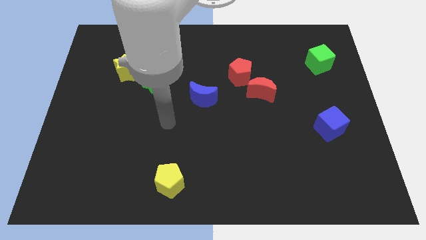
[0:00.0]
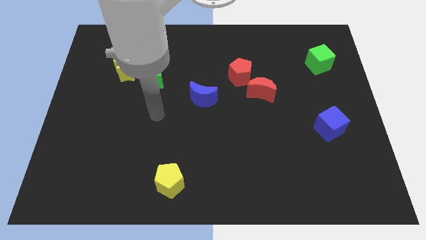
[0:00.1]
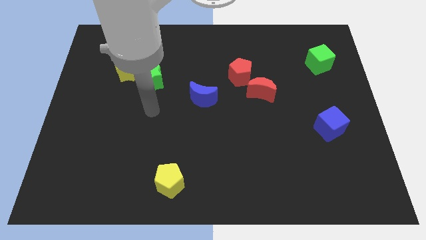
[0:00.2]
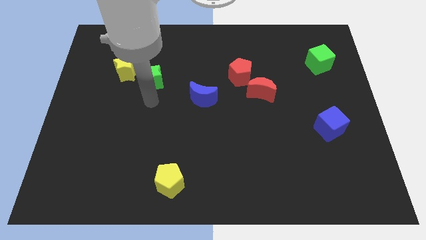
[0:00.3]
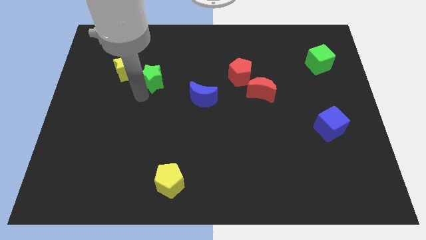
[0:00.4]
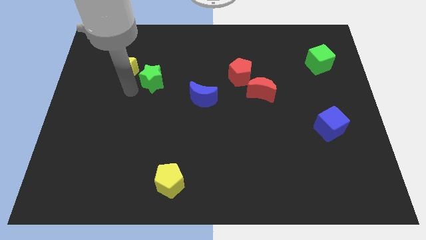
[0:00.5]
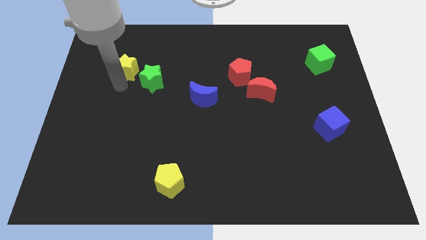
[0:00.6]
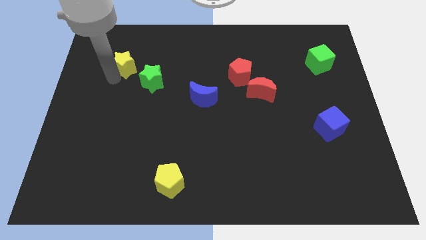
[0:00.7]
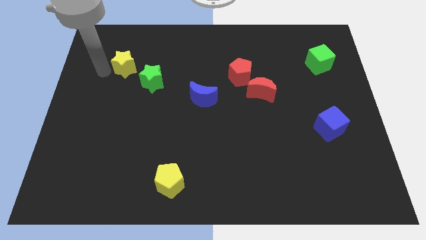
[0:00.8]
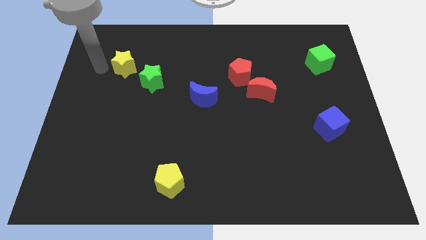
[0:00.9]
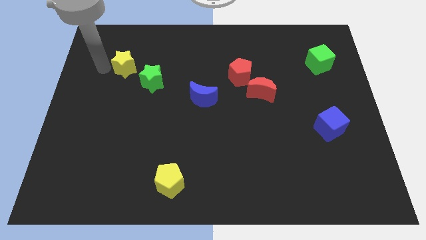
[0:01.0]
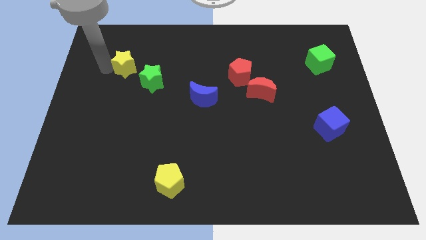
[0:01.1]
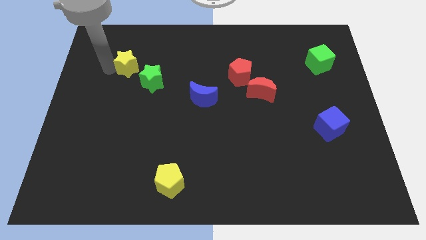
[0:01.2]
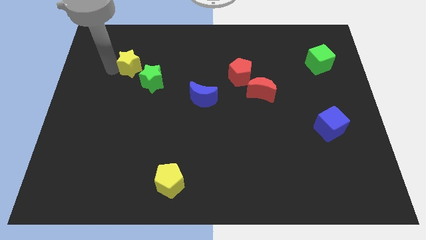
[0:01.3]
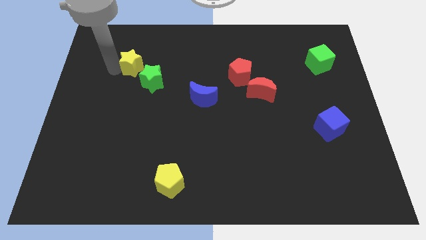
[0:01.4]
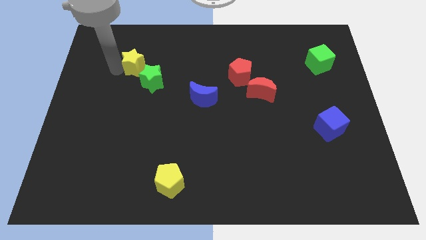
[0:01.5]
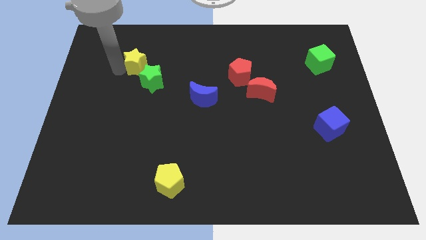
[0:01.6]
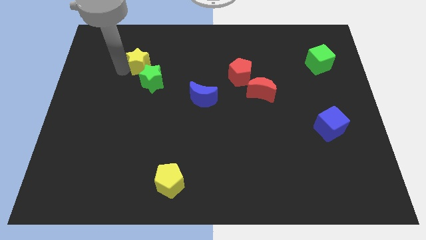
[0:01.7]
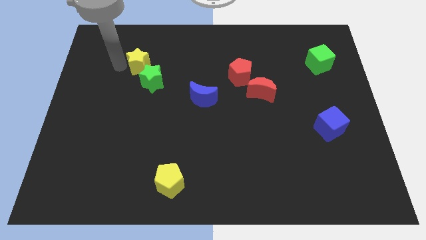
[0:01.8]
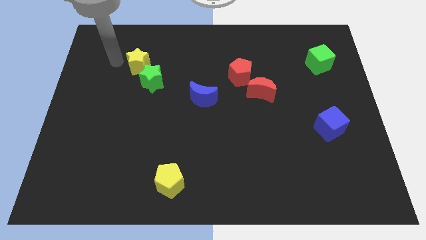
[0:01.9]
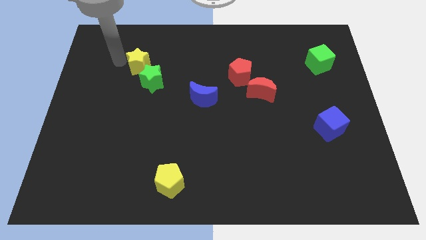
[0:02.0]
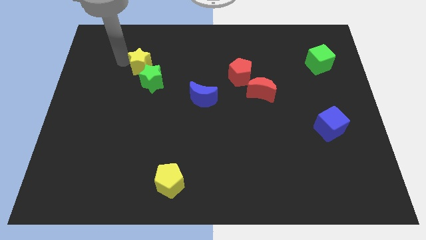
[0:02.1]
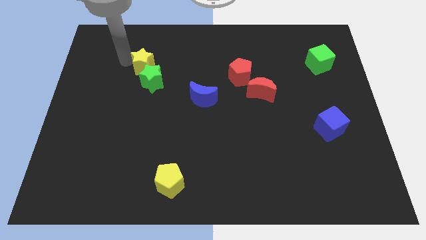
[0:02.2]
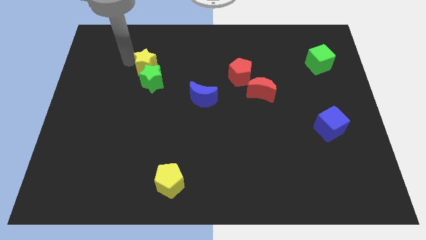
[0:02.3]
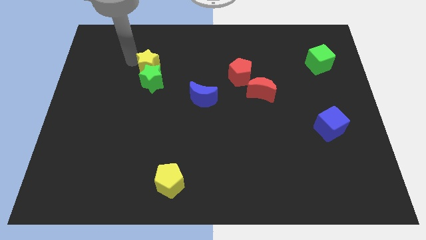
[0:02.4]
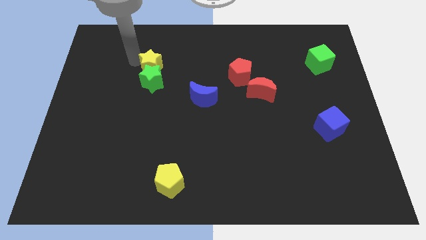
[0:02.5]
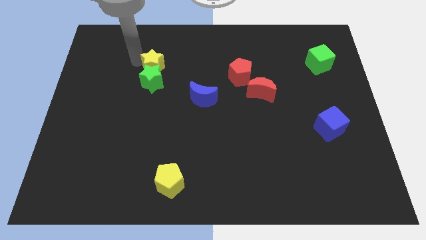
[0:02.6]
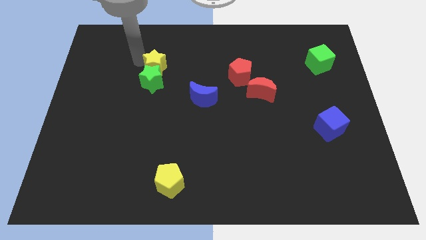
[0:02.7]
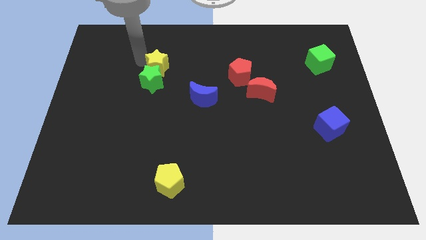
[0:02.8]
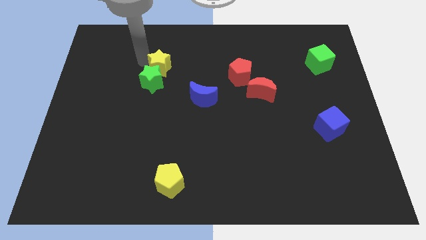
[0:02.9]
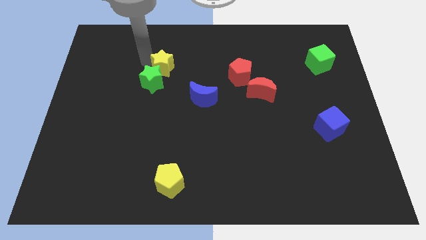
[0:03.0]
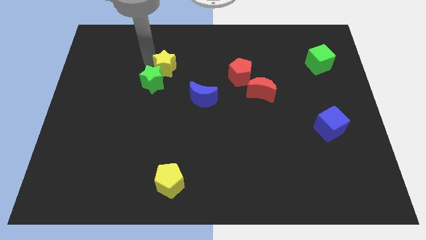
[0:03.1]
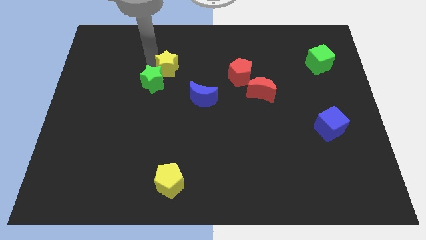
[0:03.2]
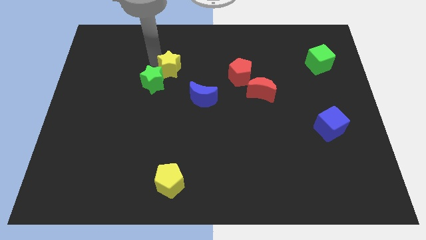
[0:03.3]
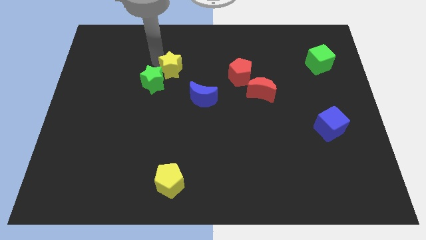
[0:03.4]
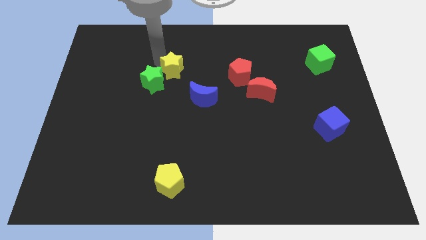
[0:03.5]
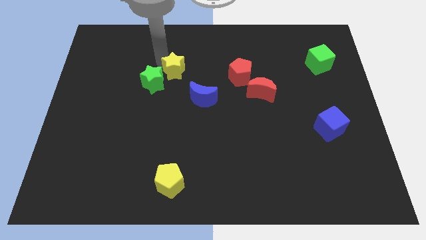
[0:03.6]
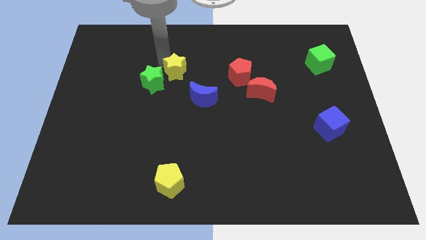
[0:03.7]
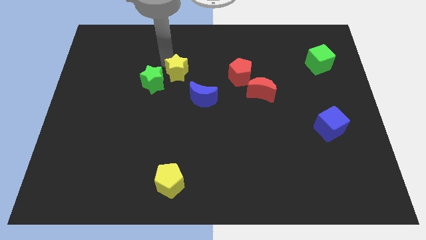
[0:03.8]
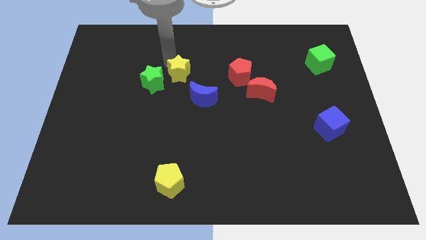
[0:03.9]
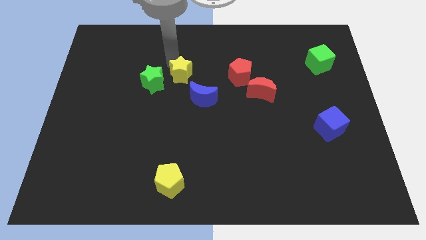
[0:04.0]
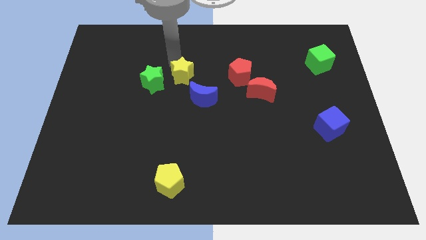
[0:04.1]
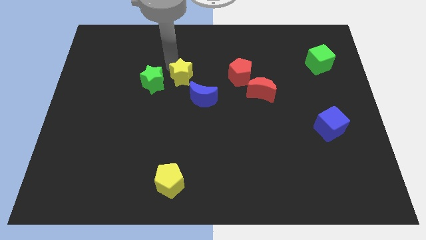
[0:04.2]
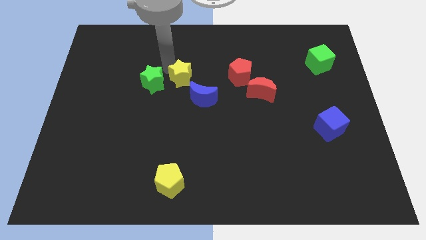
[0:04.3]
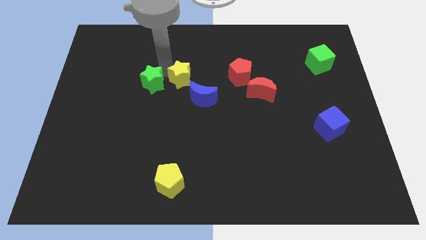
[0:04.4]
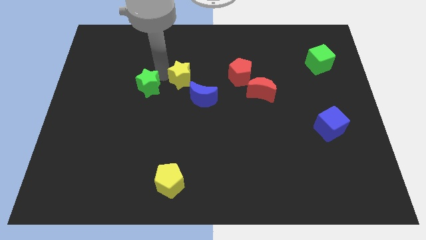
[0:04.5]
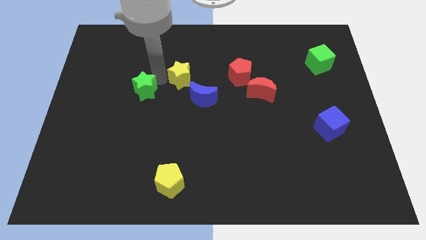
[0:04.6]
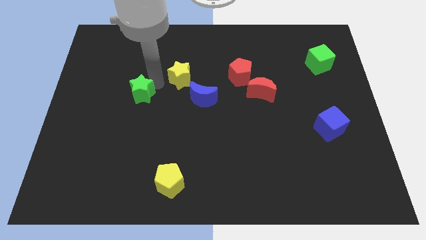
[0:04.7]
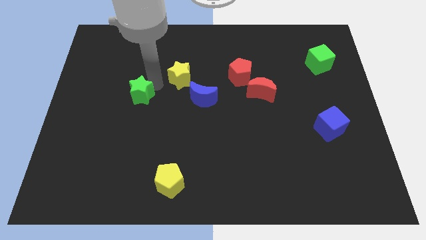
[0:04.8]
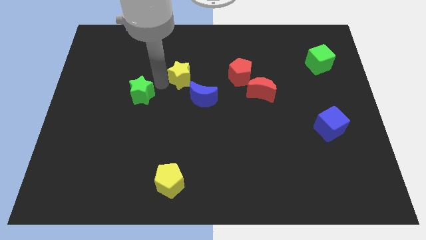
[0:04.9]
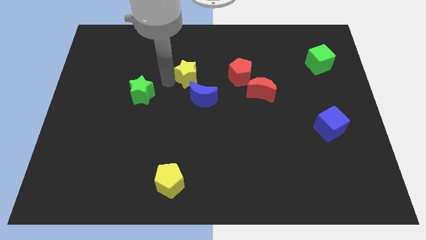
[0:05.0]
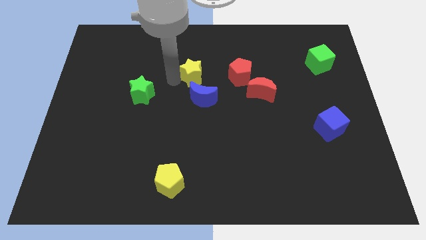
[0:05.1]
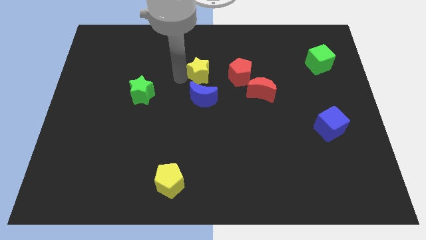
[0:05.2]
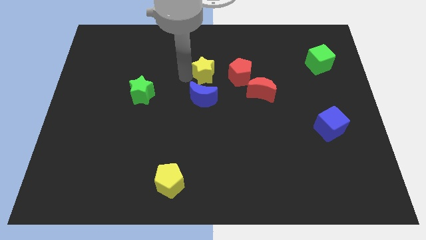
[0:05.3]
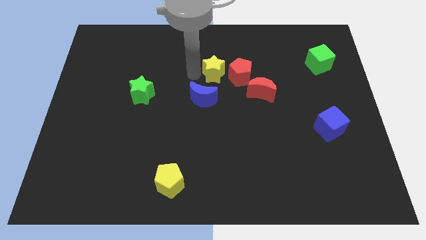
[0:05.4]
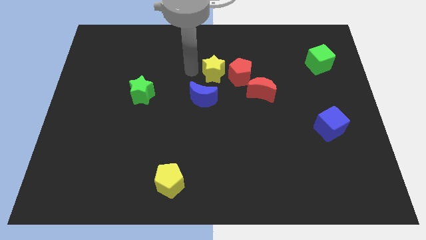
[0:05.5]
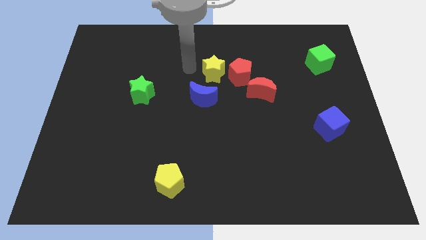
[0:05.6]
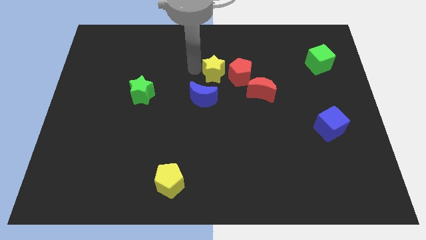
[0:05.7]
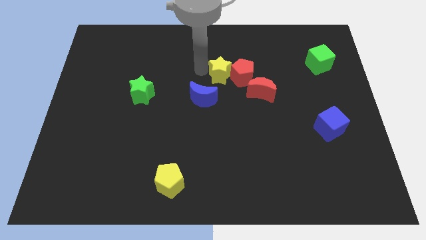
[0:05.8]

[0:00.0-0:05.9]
move the yellow star towards the red pentagon

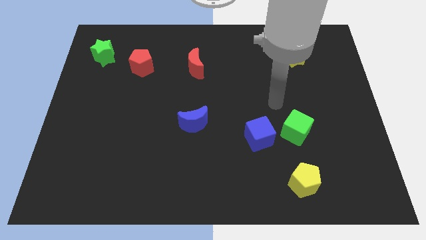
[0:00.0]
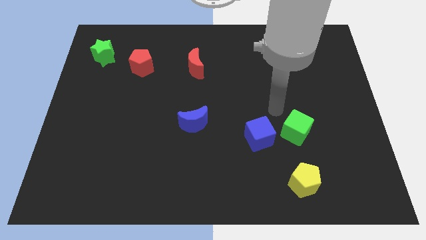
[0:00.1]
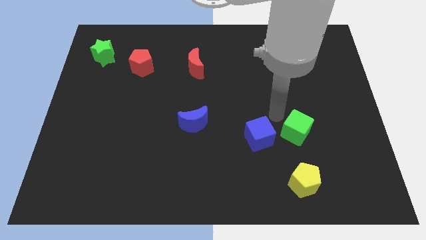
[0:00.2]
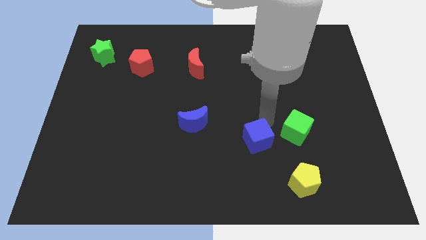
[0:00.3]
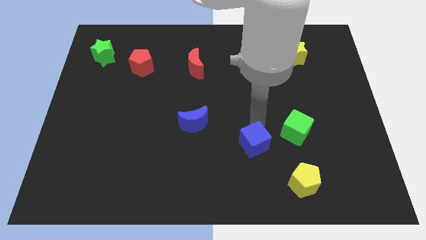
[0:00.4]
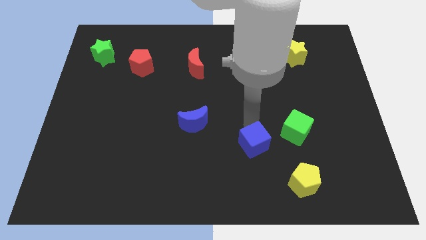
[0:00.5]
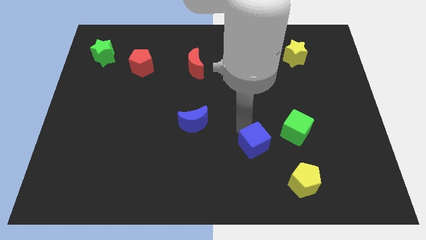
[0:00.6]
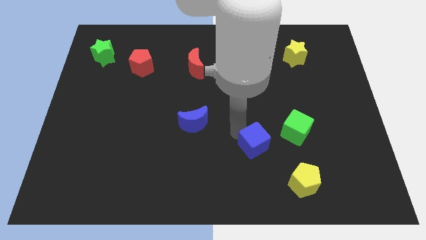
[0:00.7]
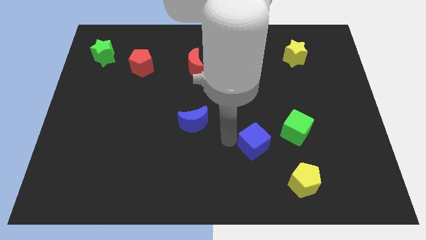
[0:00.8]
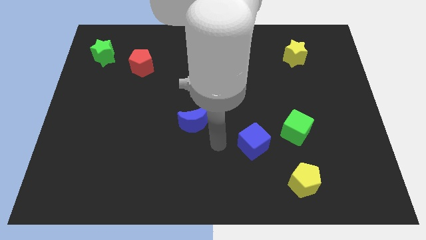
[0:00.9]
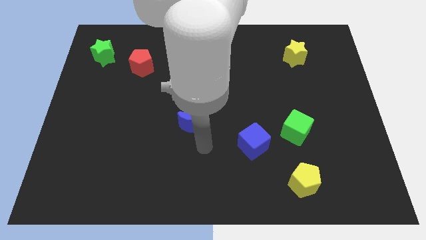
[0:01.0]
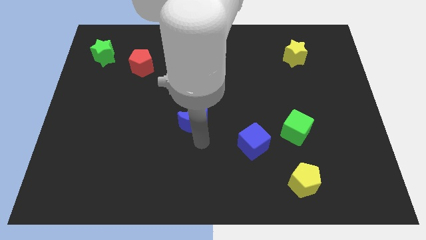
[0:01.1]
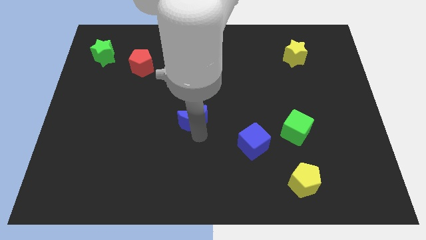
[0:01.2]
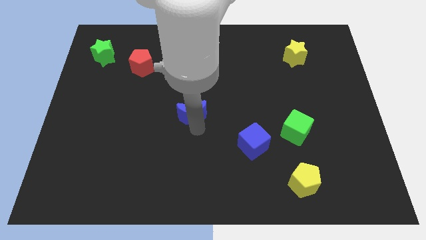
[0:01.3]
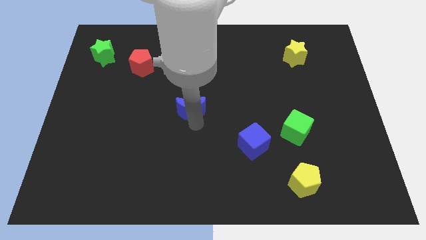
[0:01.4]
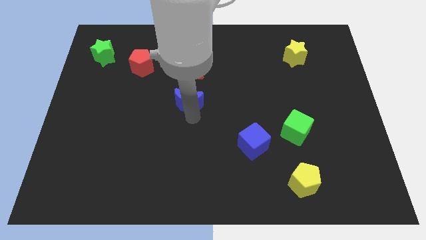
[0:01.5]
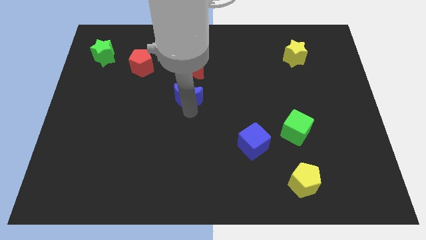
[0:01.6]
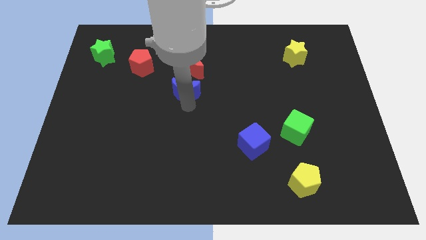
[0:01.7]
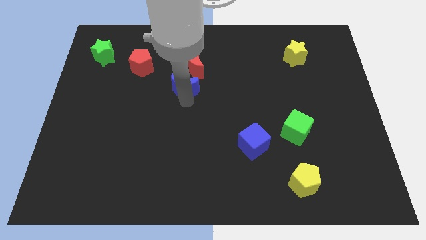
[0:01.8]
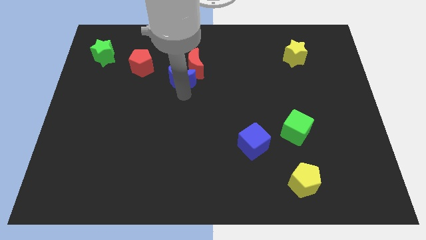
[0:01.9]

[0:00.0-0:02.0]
move the blue moon close to the red moon
